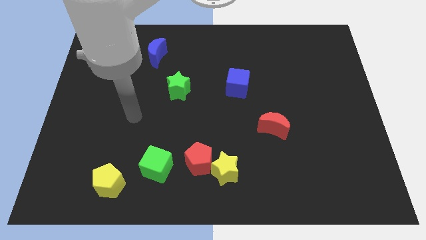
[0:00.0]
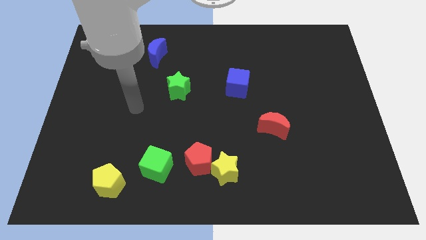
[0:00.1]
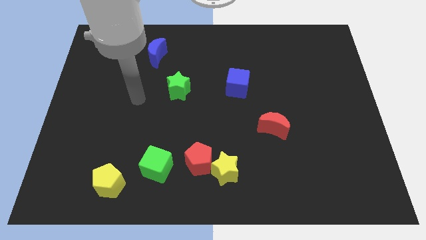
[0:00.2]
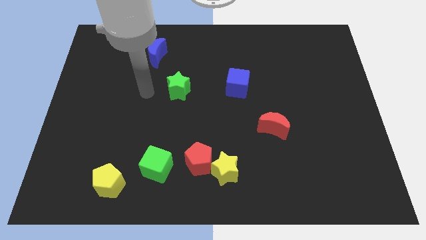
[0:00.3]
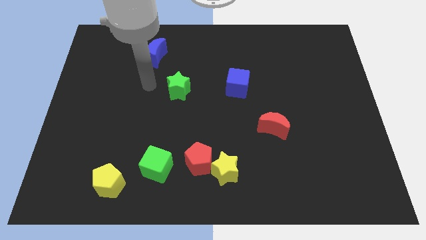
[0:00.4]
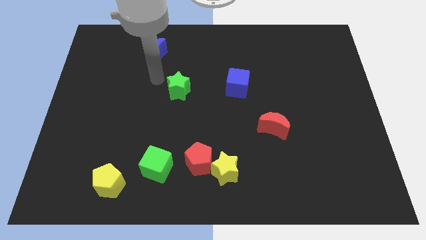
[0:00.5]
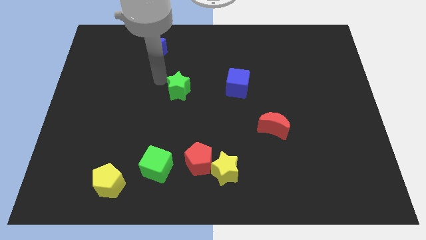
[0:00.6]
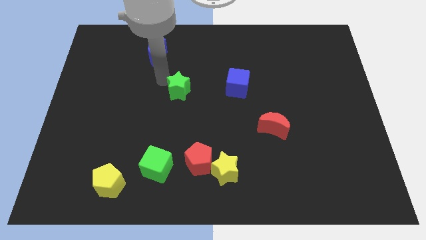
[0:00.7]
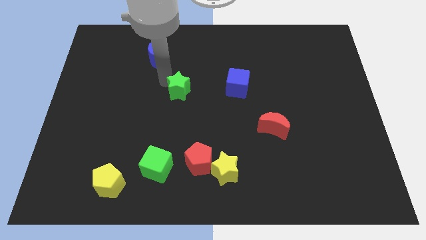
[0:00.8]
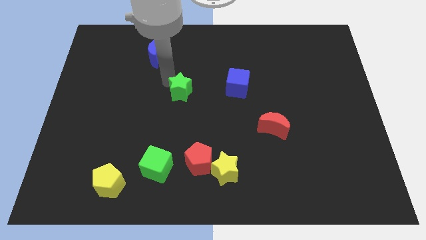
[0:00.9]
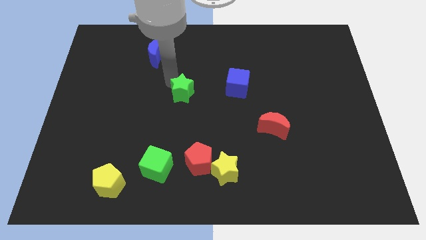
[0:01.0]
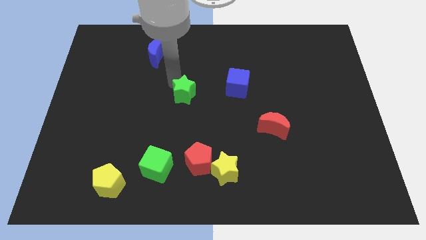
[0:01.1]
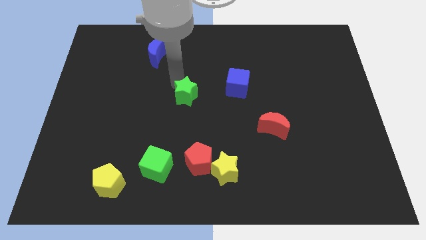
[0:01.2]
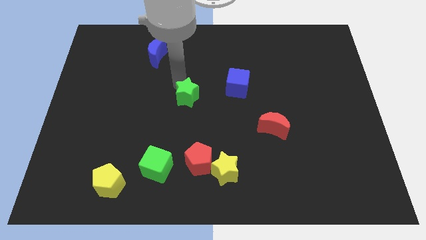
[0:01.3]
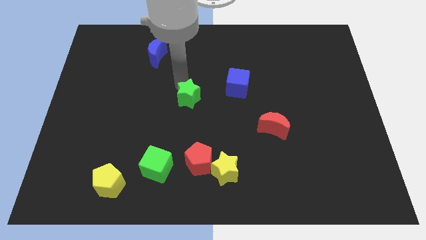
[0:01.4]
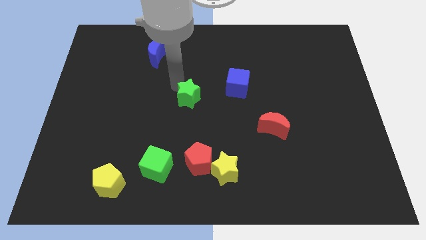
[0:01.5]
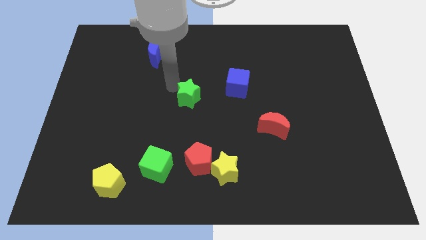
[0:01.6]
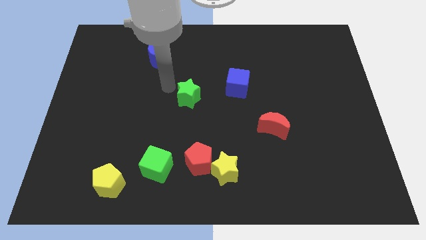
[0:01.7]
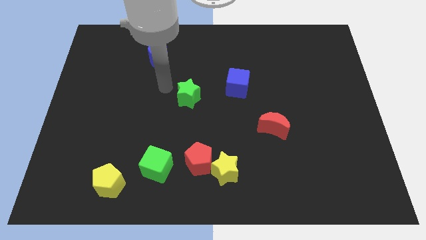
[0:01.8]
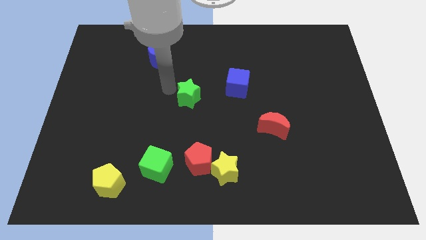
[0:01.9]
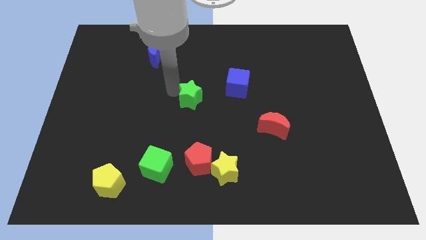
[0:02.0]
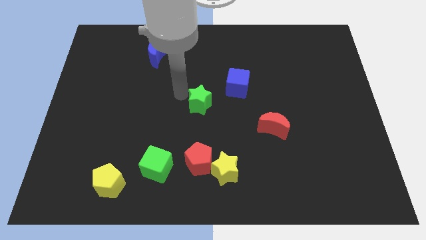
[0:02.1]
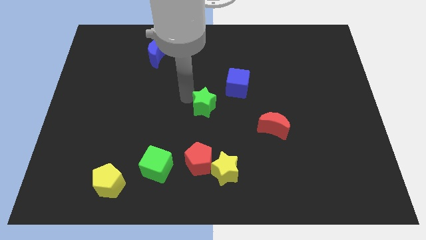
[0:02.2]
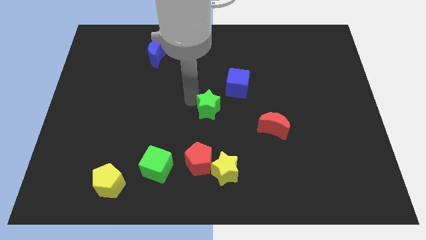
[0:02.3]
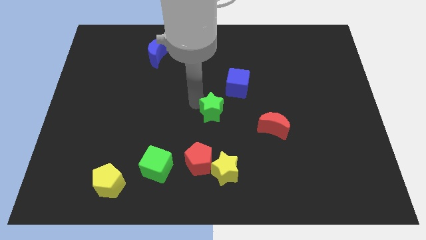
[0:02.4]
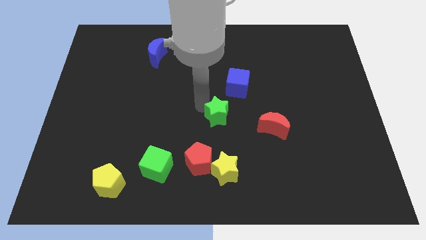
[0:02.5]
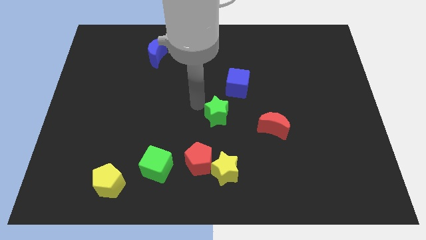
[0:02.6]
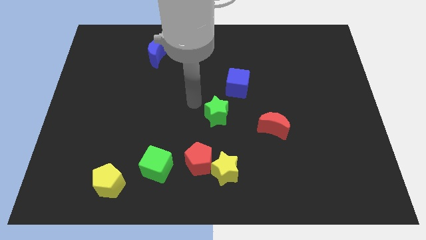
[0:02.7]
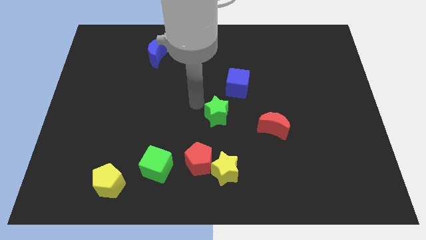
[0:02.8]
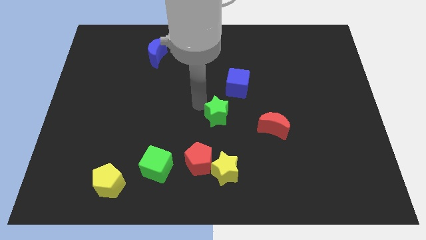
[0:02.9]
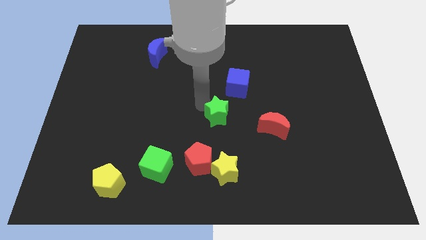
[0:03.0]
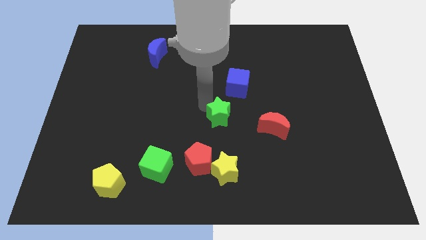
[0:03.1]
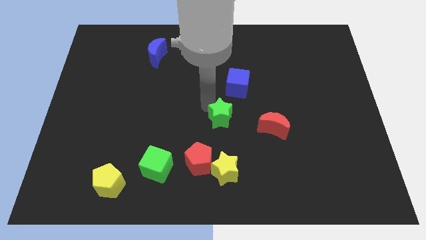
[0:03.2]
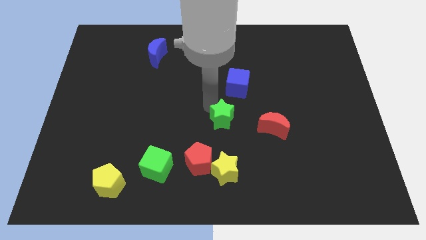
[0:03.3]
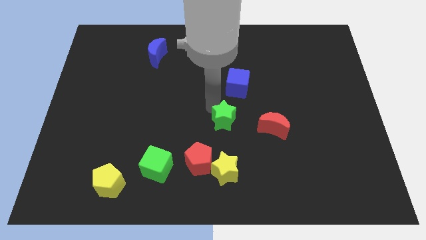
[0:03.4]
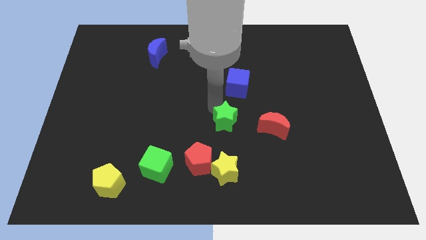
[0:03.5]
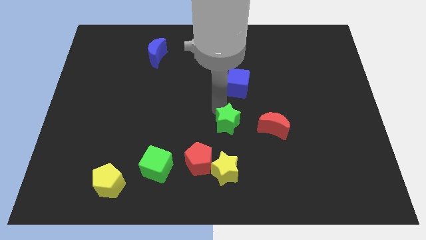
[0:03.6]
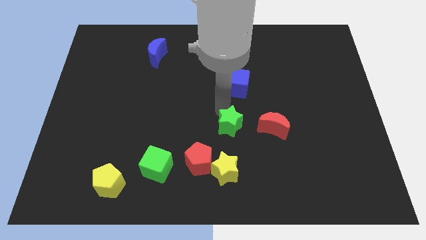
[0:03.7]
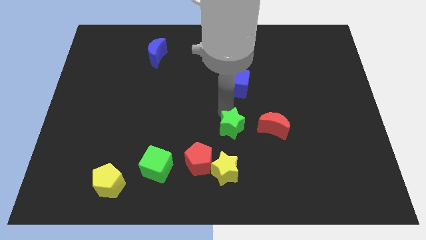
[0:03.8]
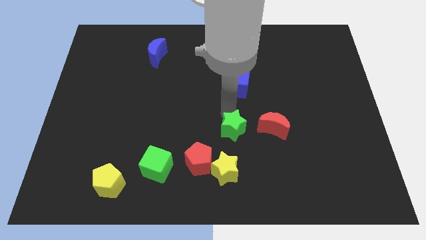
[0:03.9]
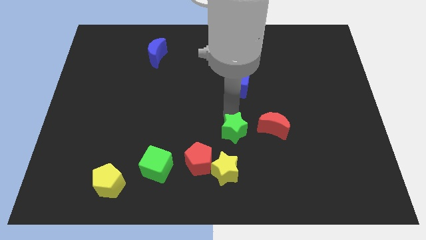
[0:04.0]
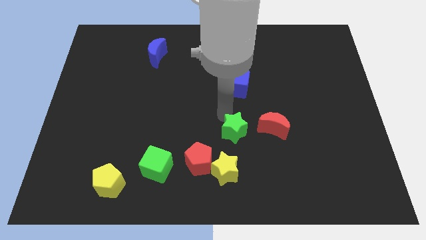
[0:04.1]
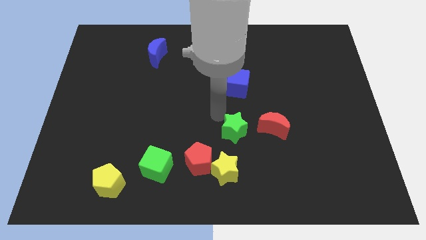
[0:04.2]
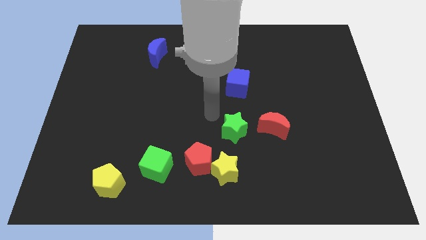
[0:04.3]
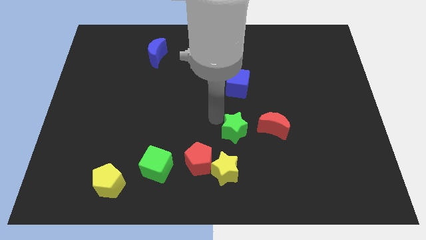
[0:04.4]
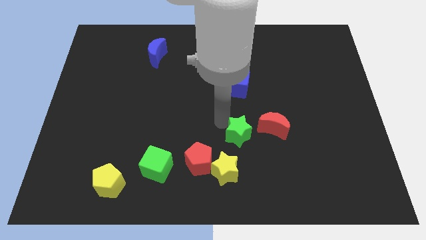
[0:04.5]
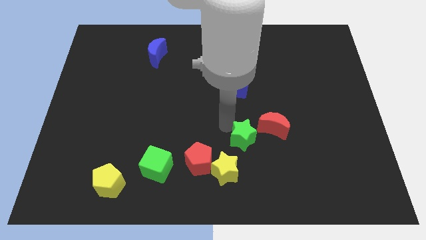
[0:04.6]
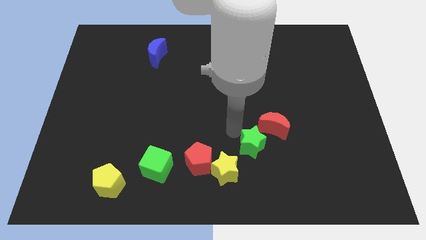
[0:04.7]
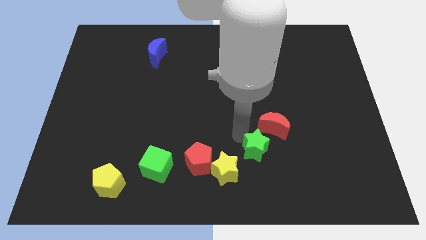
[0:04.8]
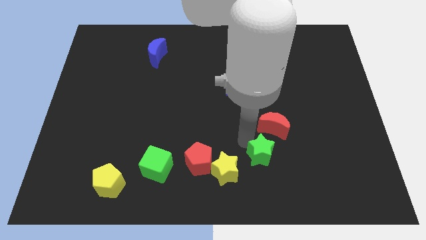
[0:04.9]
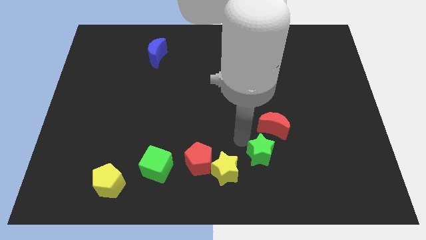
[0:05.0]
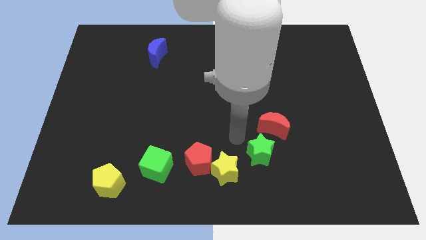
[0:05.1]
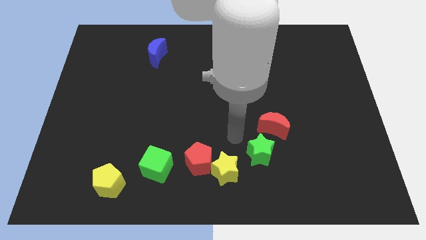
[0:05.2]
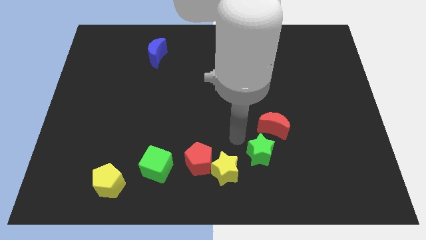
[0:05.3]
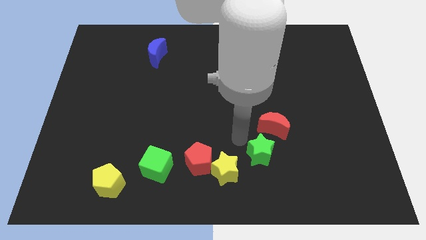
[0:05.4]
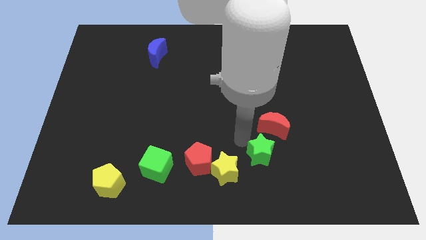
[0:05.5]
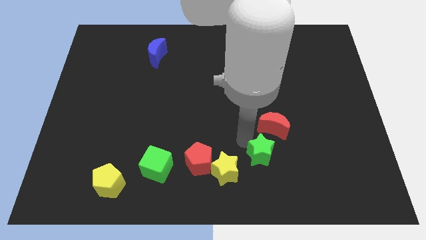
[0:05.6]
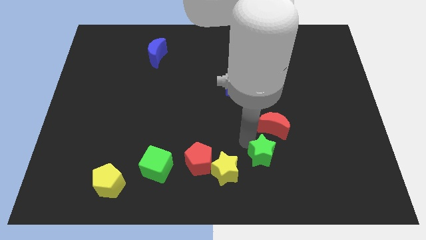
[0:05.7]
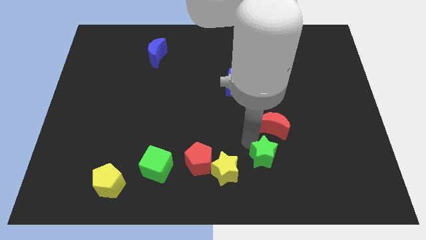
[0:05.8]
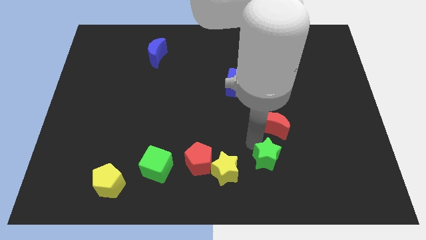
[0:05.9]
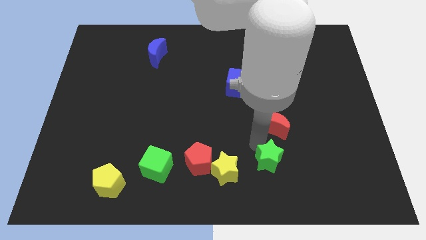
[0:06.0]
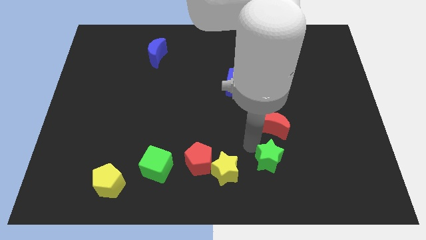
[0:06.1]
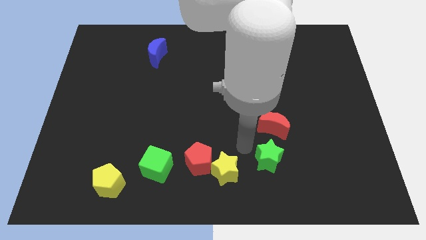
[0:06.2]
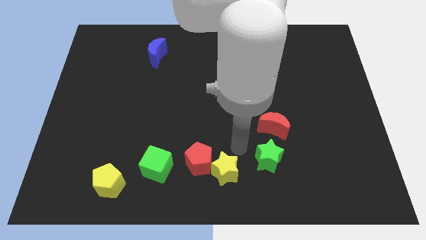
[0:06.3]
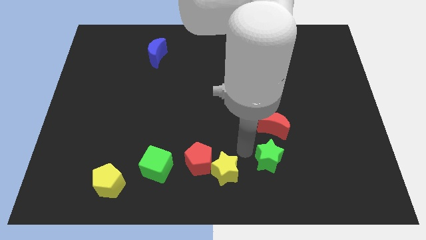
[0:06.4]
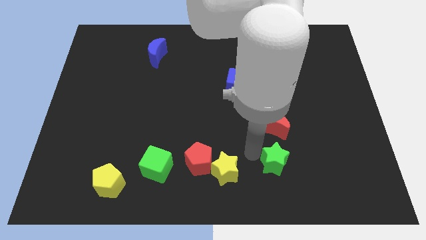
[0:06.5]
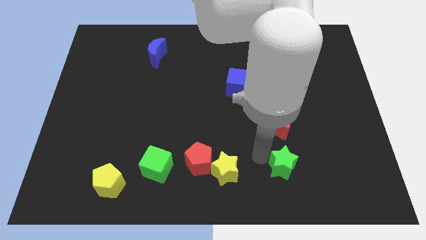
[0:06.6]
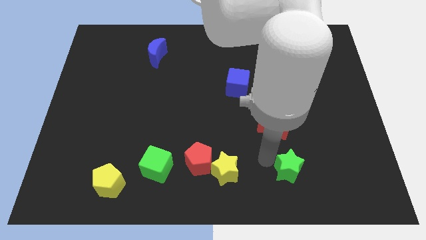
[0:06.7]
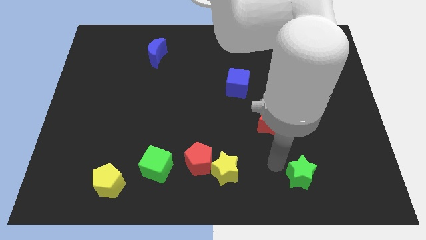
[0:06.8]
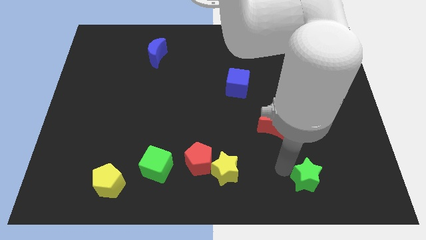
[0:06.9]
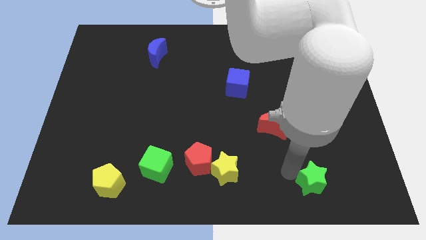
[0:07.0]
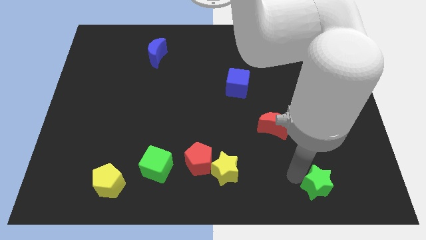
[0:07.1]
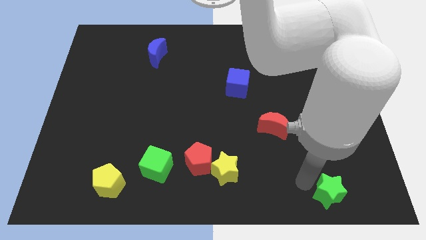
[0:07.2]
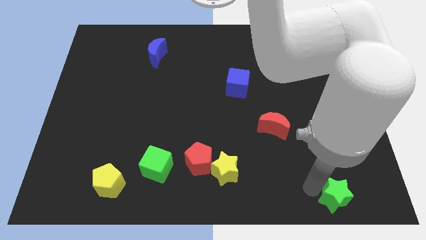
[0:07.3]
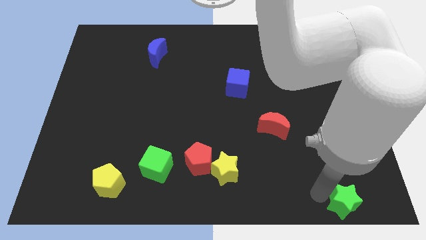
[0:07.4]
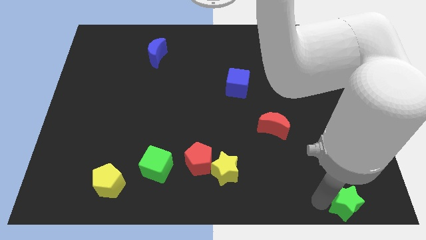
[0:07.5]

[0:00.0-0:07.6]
move the green star to the bottom right corner
